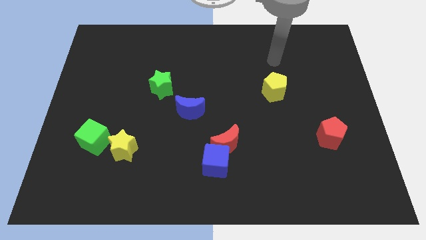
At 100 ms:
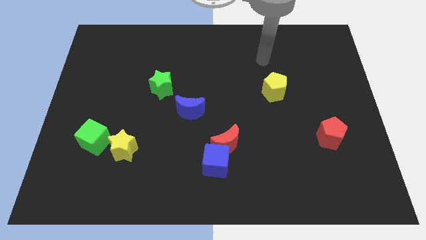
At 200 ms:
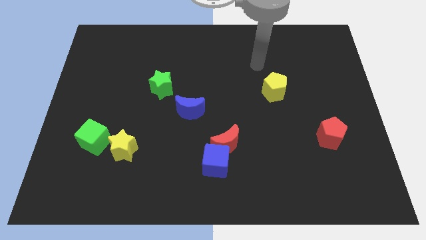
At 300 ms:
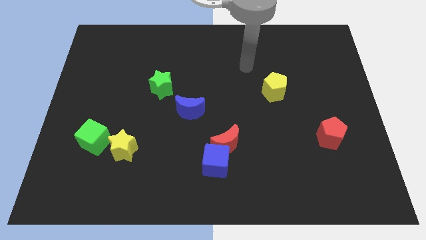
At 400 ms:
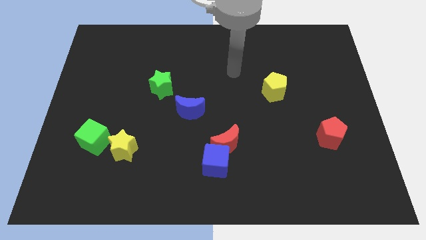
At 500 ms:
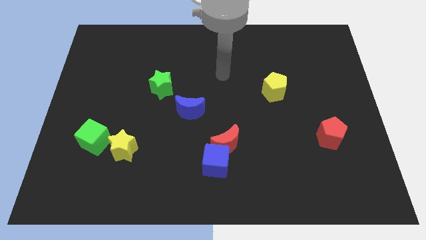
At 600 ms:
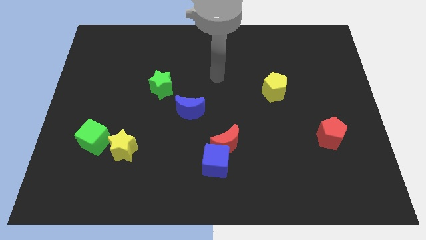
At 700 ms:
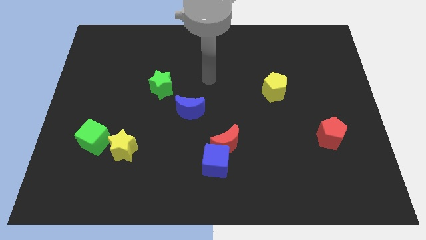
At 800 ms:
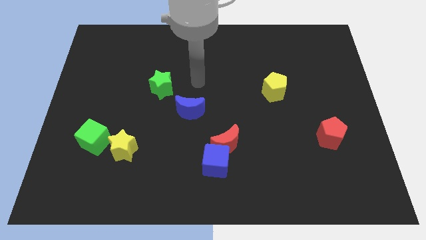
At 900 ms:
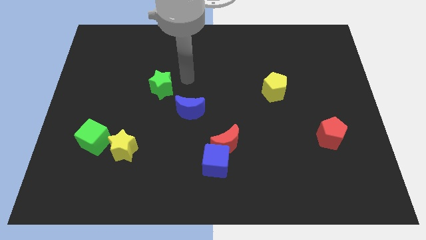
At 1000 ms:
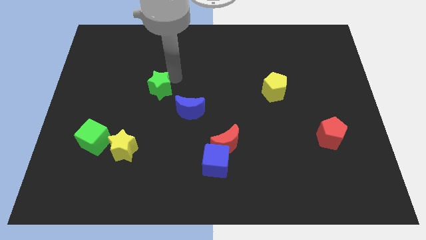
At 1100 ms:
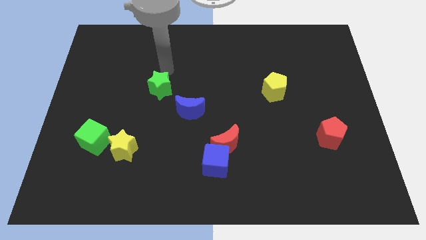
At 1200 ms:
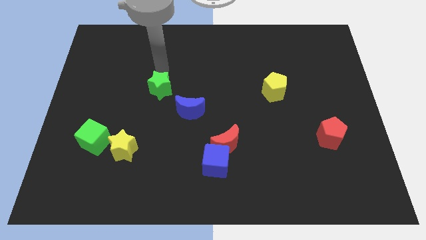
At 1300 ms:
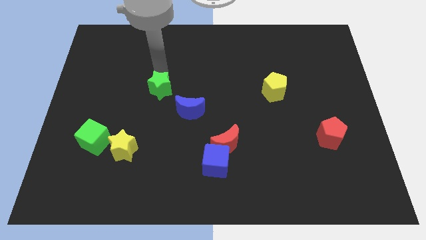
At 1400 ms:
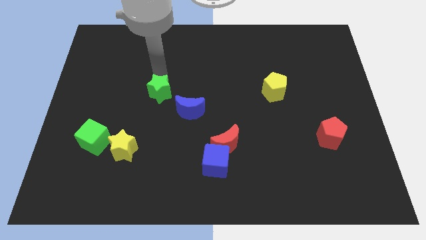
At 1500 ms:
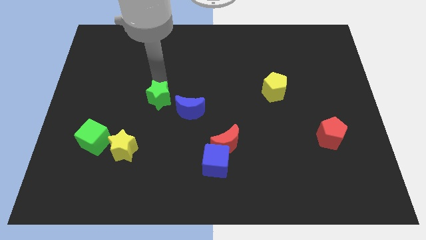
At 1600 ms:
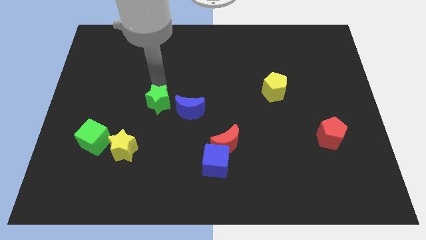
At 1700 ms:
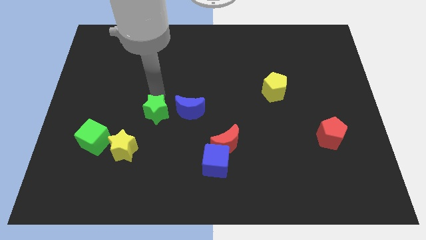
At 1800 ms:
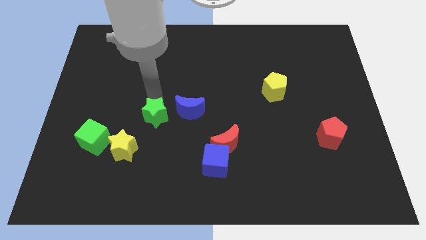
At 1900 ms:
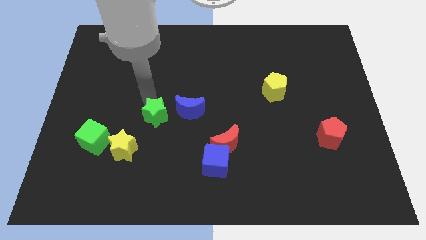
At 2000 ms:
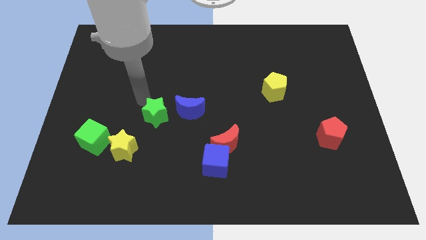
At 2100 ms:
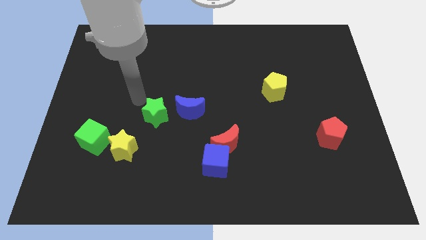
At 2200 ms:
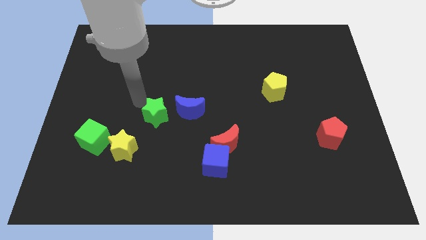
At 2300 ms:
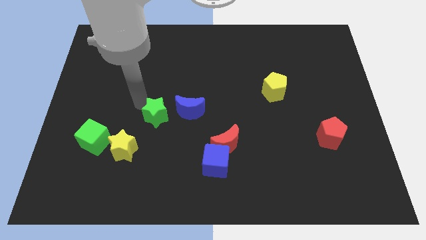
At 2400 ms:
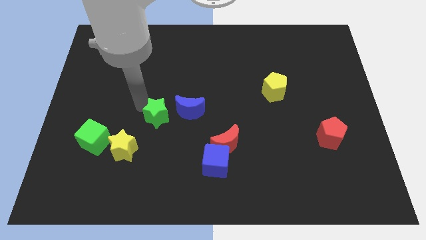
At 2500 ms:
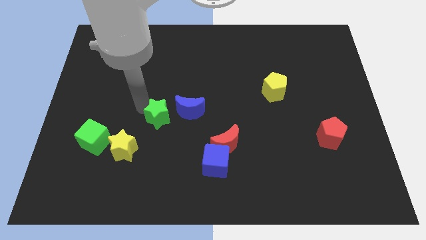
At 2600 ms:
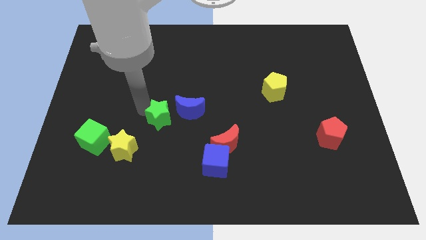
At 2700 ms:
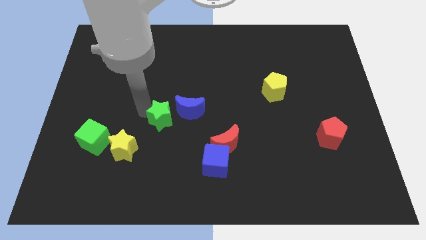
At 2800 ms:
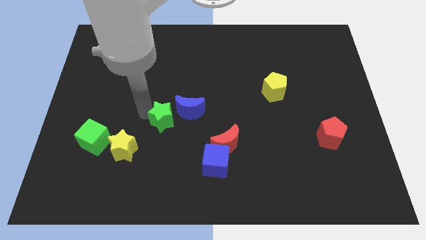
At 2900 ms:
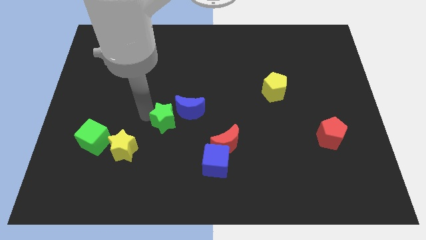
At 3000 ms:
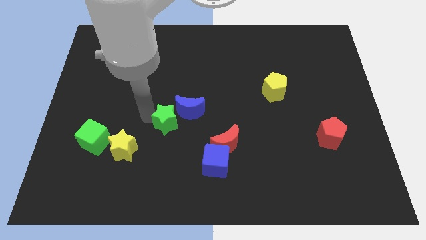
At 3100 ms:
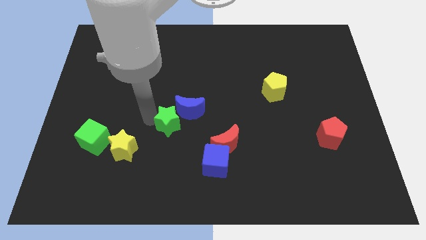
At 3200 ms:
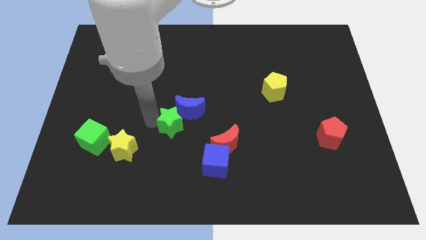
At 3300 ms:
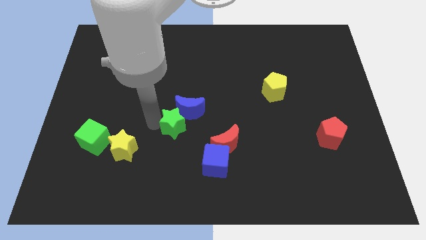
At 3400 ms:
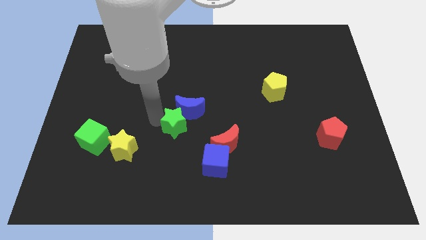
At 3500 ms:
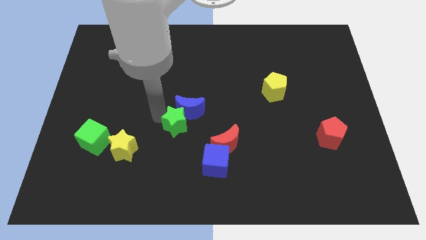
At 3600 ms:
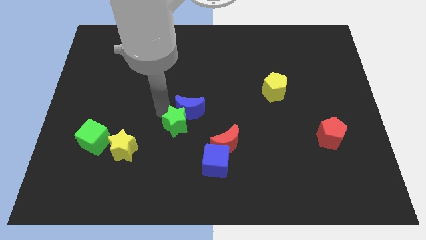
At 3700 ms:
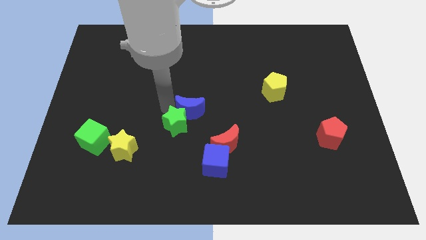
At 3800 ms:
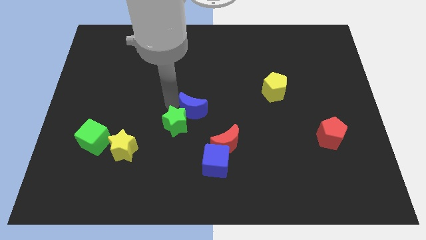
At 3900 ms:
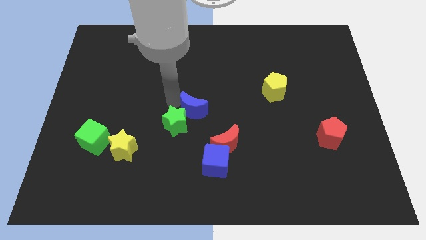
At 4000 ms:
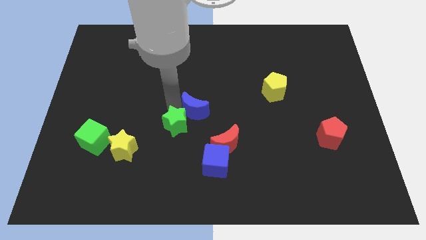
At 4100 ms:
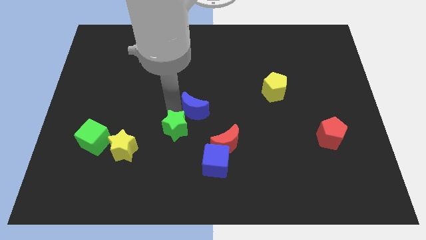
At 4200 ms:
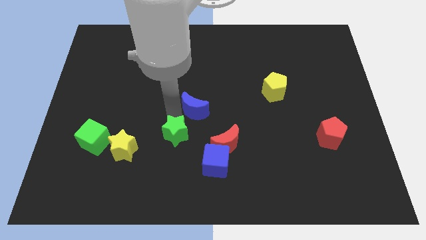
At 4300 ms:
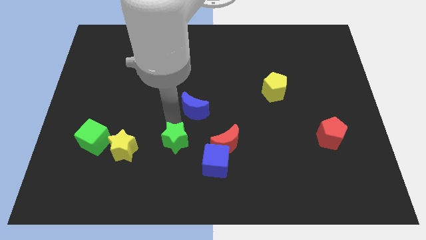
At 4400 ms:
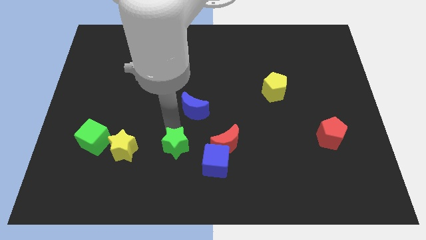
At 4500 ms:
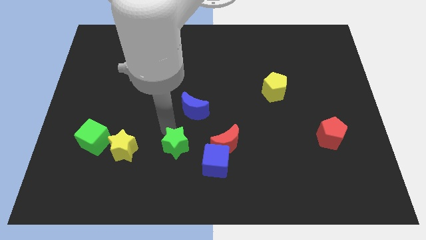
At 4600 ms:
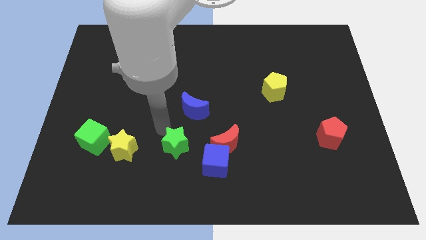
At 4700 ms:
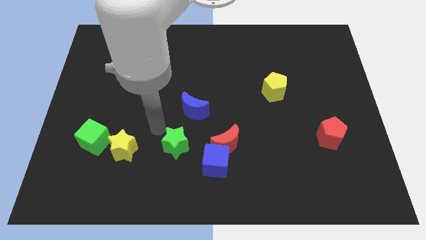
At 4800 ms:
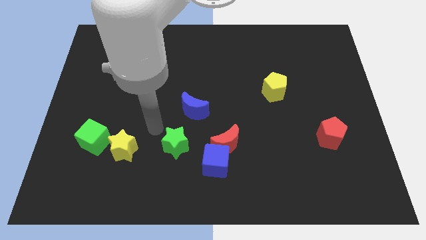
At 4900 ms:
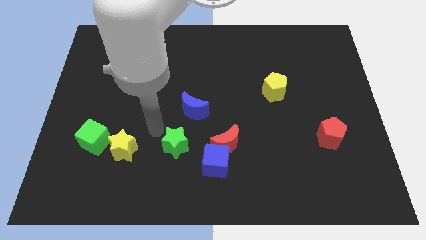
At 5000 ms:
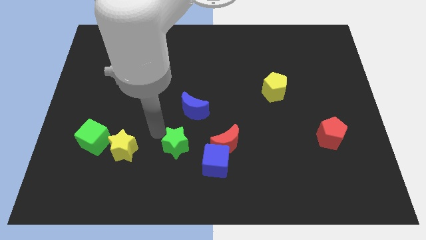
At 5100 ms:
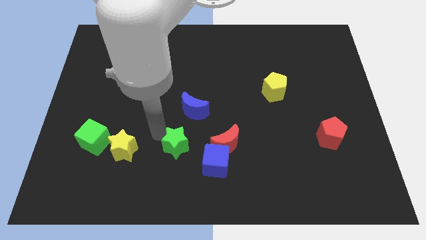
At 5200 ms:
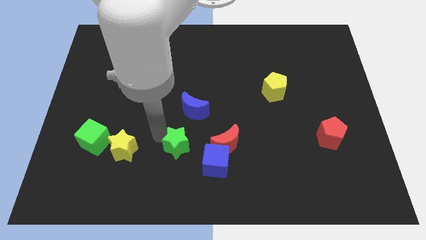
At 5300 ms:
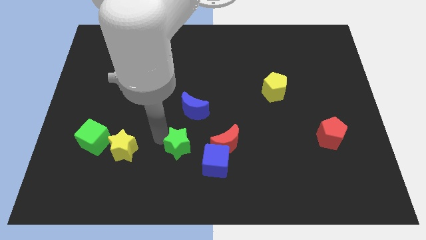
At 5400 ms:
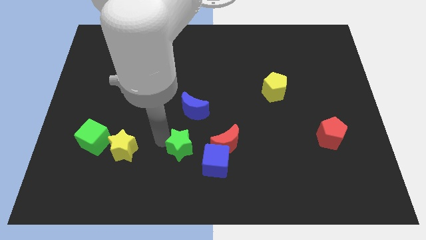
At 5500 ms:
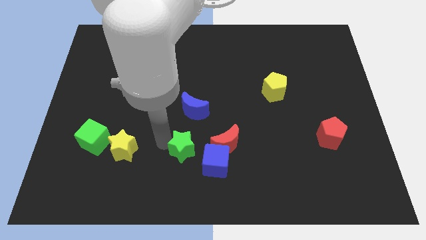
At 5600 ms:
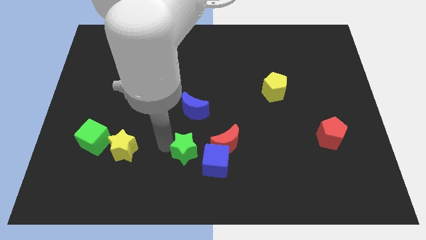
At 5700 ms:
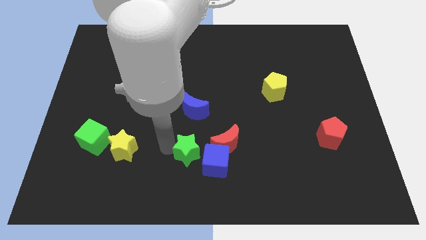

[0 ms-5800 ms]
move the green star to the bottom left of the red moon

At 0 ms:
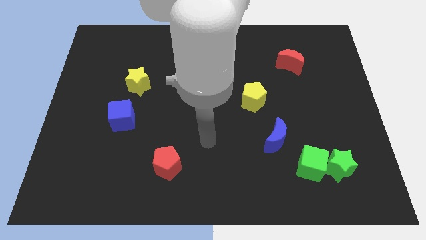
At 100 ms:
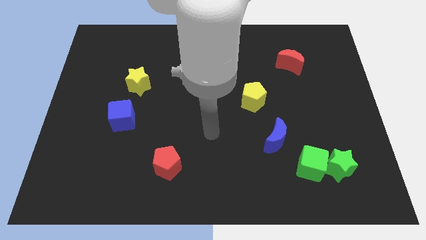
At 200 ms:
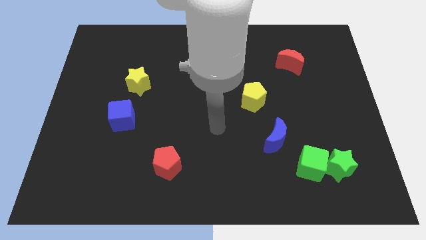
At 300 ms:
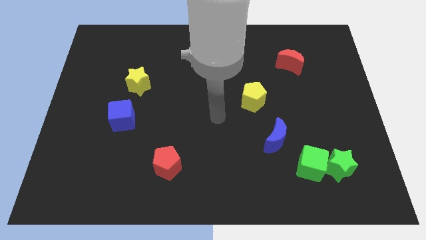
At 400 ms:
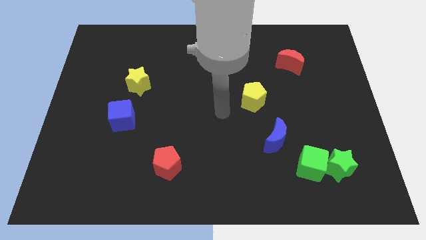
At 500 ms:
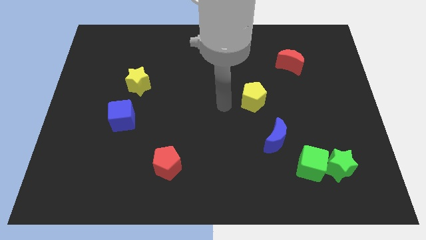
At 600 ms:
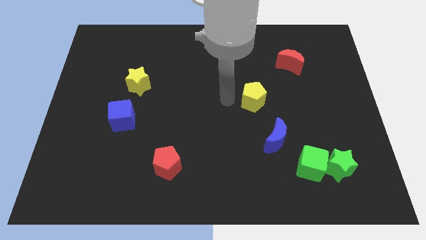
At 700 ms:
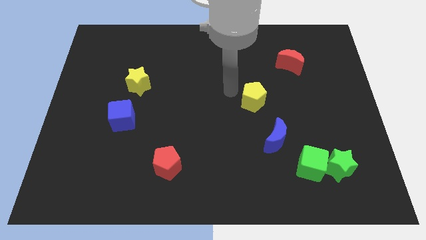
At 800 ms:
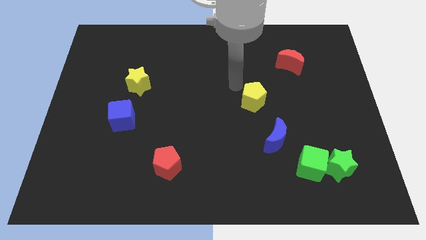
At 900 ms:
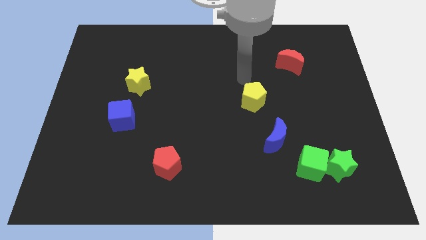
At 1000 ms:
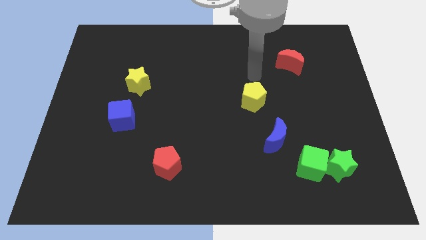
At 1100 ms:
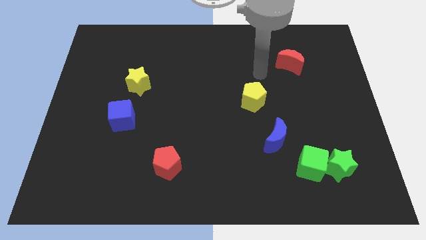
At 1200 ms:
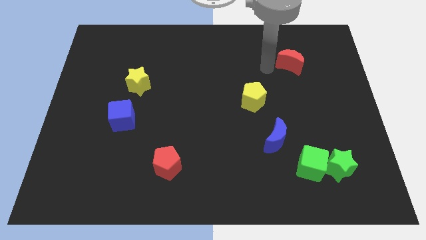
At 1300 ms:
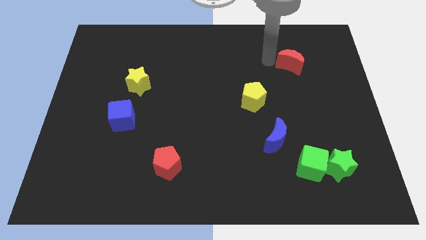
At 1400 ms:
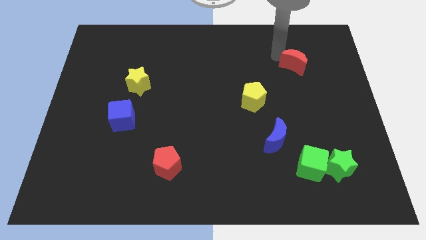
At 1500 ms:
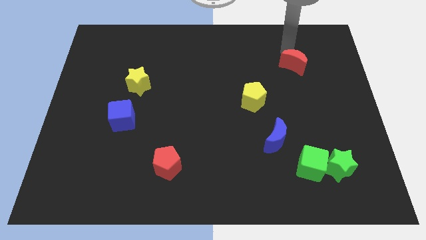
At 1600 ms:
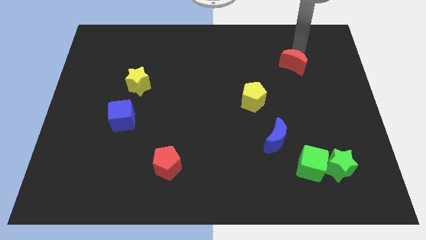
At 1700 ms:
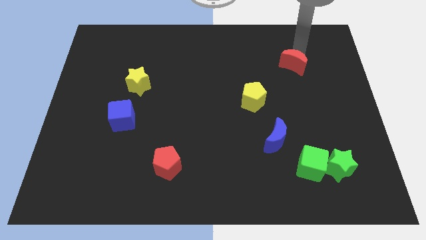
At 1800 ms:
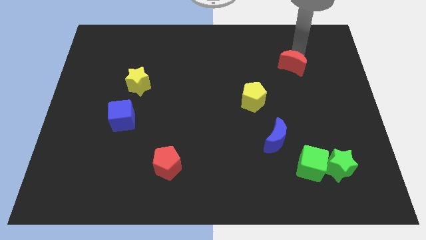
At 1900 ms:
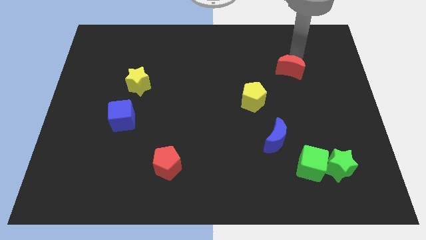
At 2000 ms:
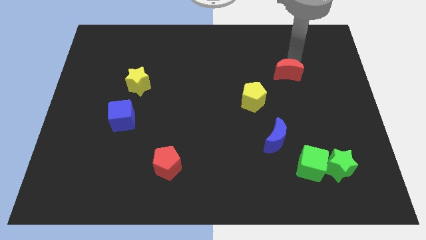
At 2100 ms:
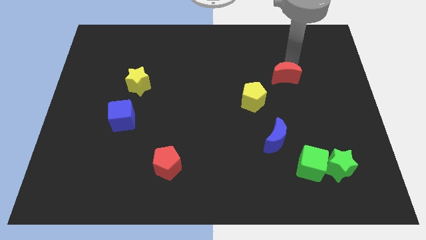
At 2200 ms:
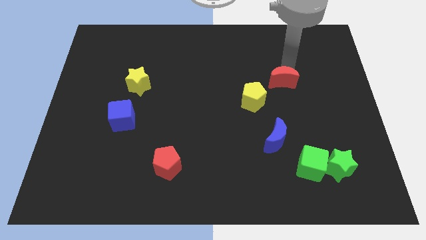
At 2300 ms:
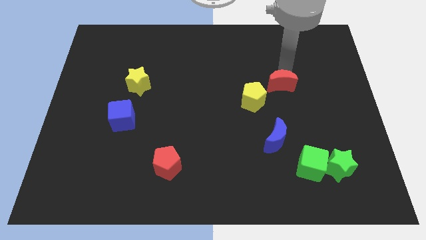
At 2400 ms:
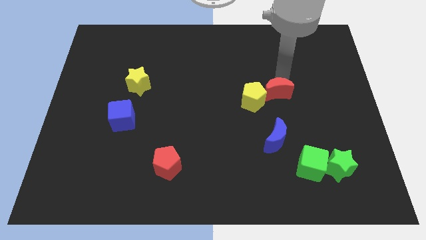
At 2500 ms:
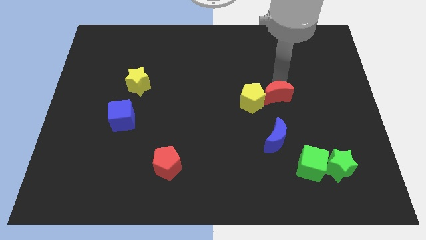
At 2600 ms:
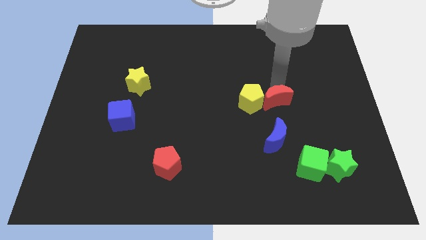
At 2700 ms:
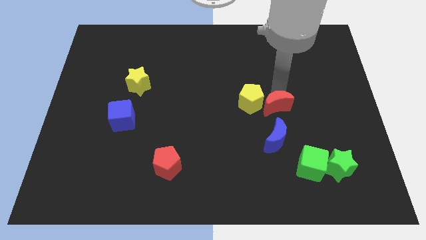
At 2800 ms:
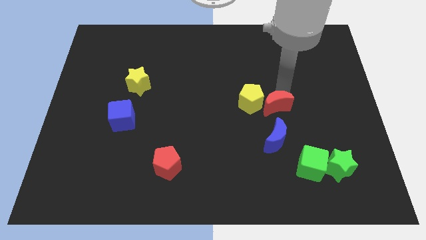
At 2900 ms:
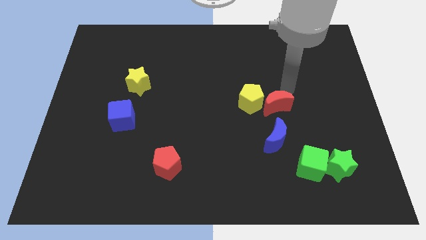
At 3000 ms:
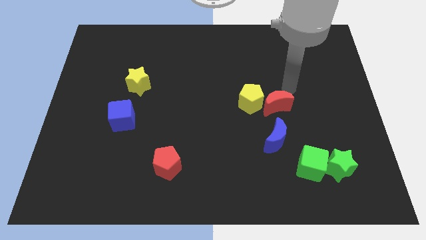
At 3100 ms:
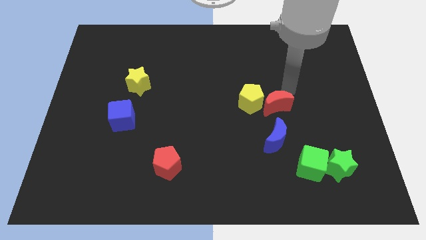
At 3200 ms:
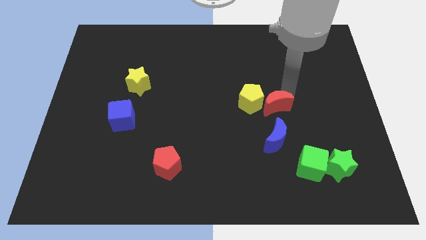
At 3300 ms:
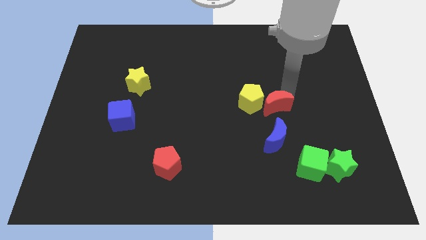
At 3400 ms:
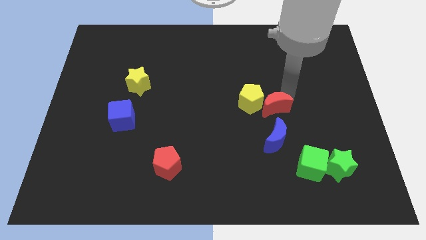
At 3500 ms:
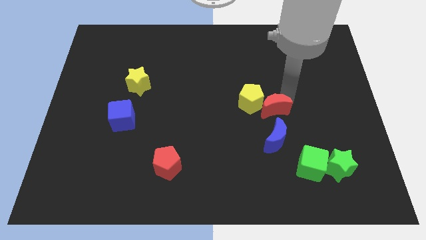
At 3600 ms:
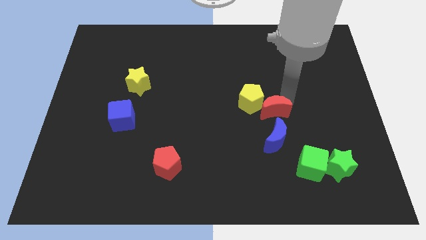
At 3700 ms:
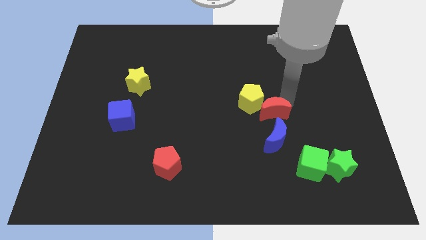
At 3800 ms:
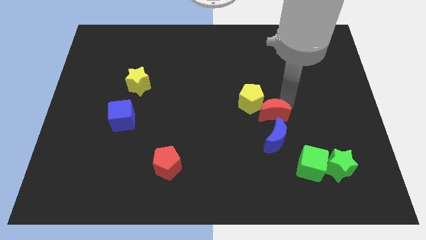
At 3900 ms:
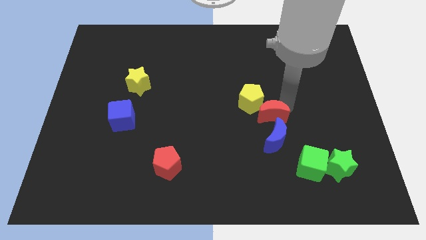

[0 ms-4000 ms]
slide the red moon below the yellow pentagon
